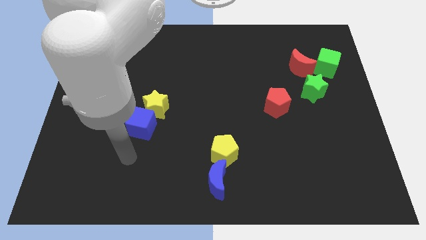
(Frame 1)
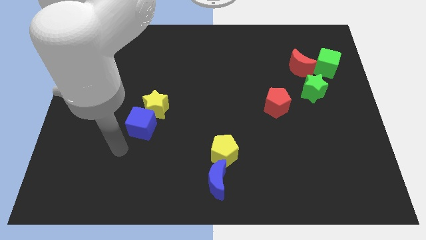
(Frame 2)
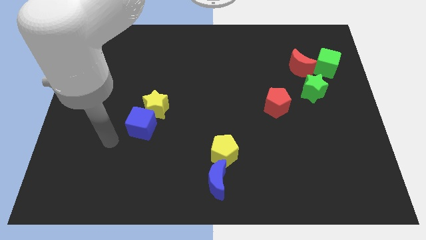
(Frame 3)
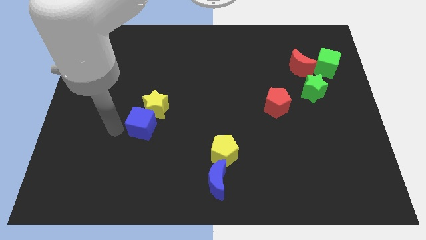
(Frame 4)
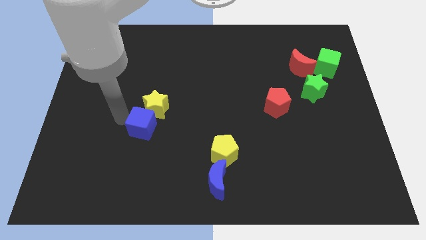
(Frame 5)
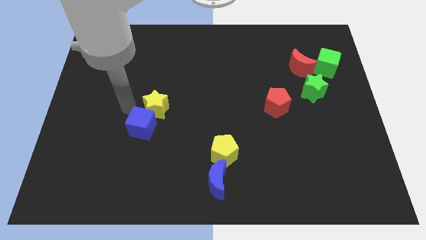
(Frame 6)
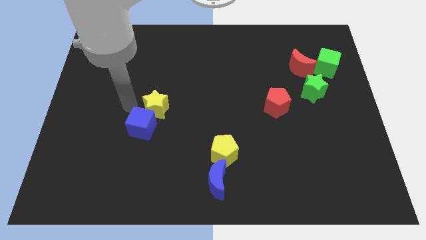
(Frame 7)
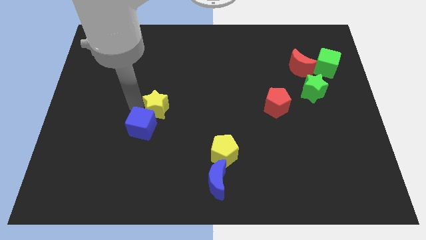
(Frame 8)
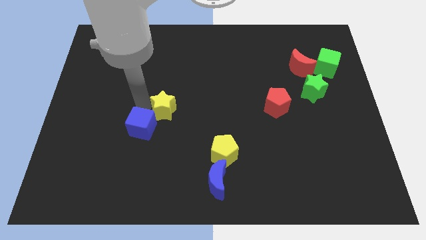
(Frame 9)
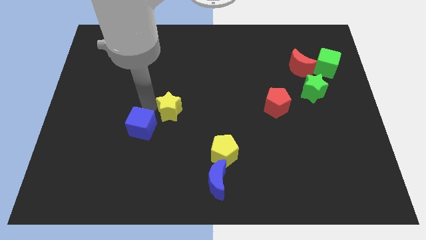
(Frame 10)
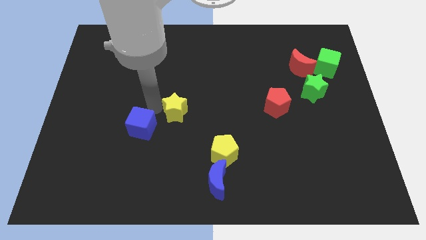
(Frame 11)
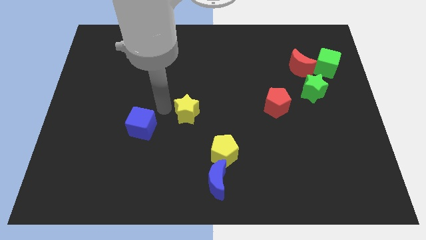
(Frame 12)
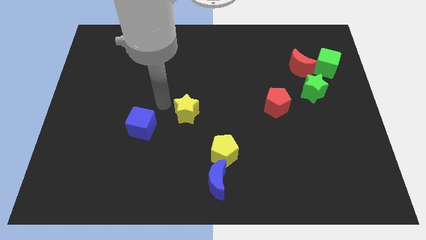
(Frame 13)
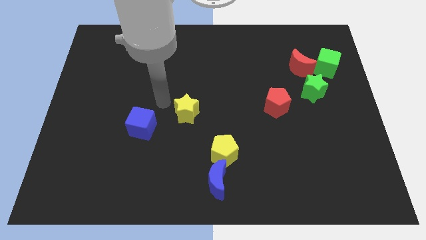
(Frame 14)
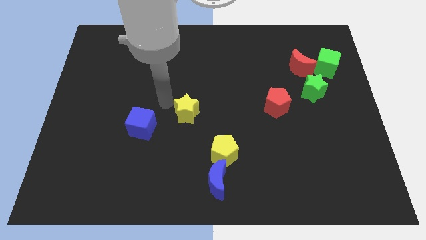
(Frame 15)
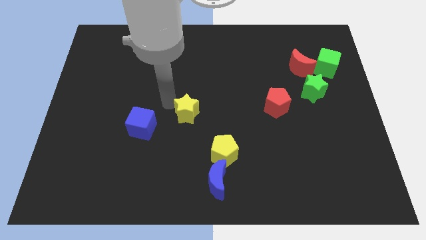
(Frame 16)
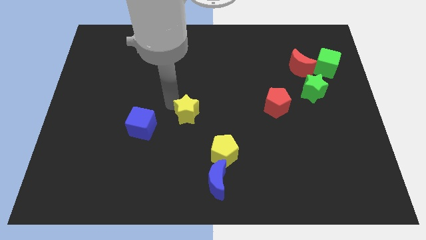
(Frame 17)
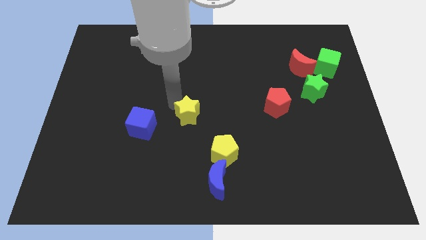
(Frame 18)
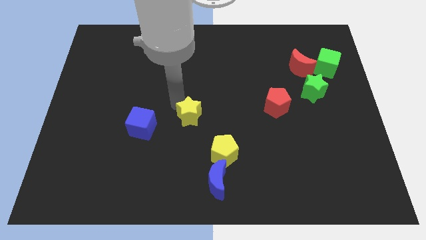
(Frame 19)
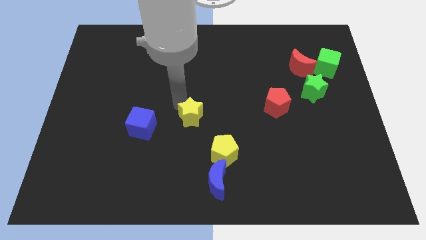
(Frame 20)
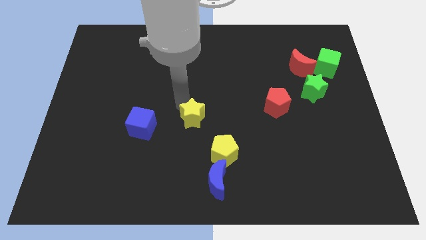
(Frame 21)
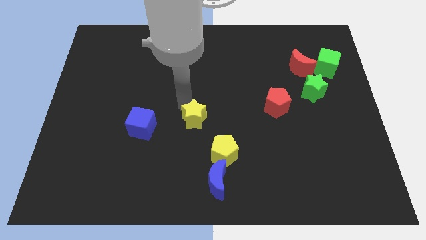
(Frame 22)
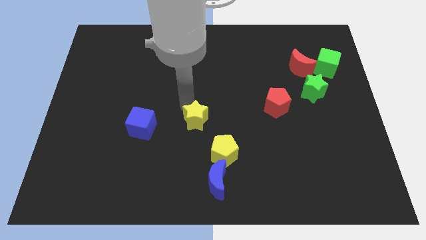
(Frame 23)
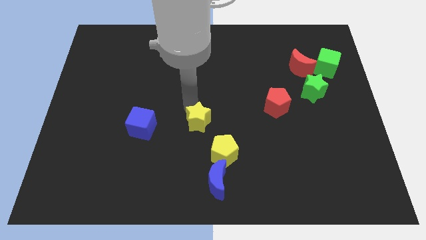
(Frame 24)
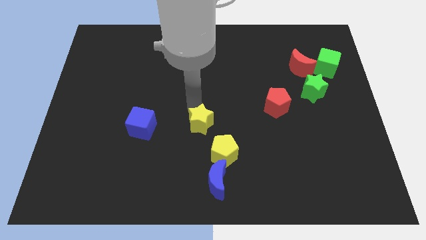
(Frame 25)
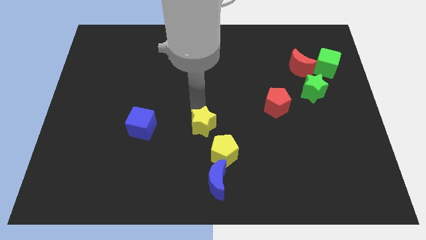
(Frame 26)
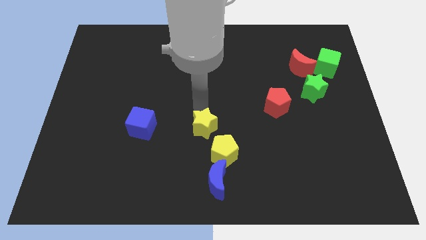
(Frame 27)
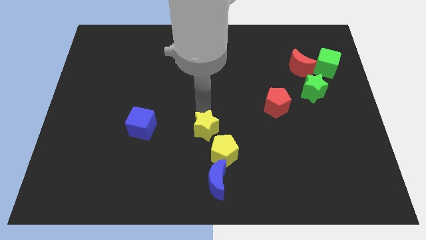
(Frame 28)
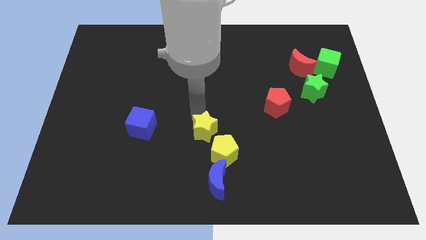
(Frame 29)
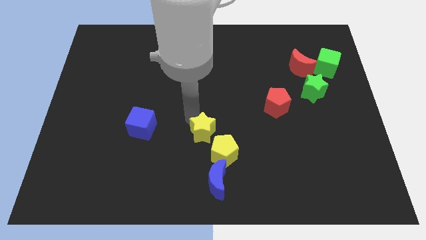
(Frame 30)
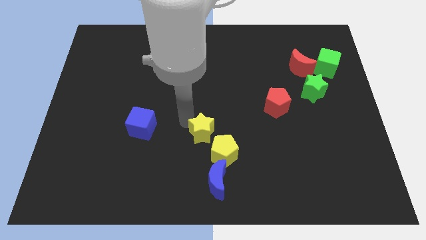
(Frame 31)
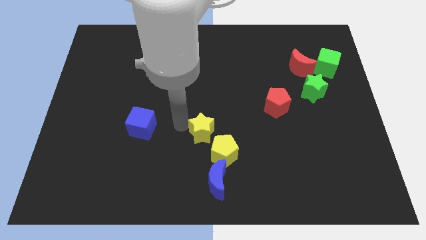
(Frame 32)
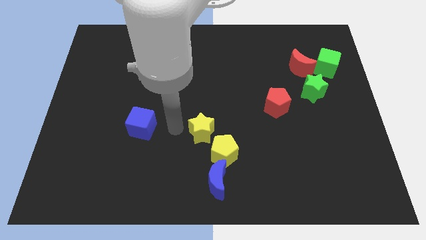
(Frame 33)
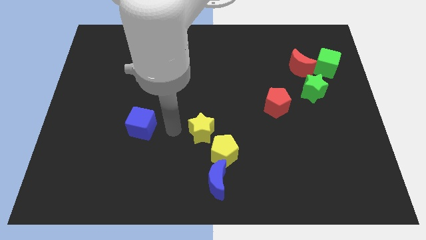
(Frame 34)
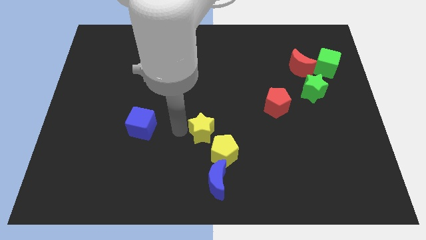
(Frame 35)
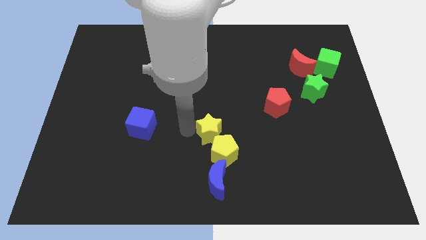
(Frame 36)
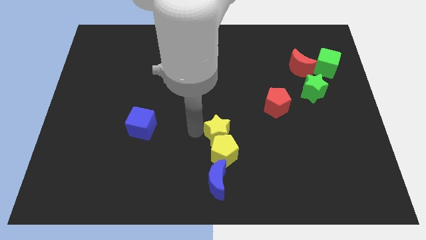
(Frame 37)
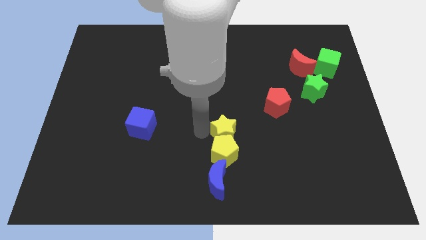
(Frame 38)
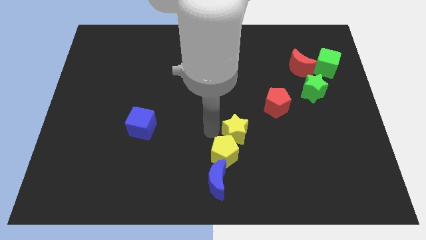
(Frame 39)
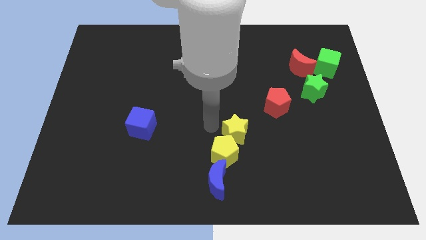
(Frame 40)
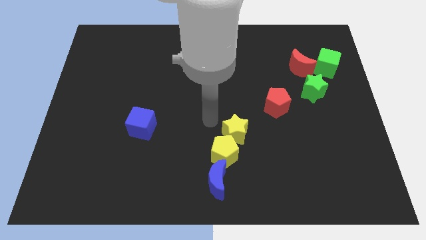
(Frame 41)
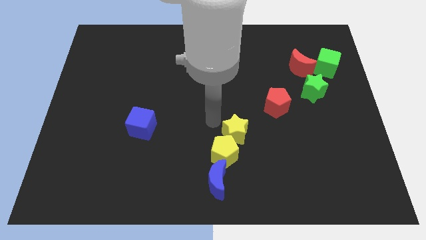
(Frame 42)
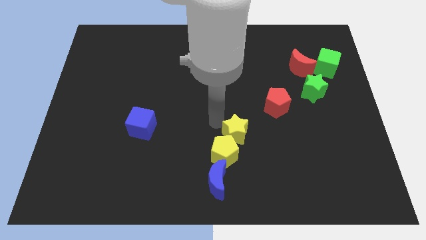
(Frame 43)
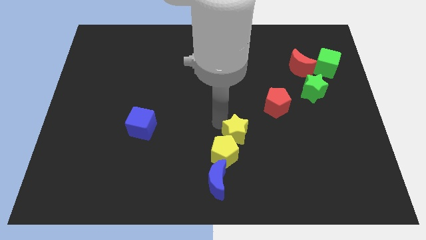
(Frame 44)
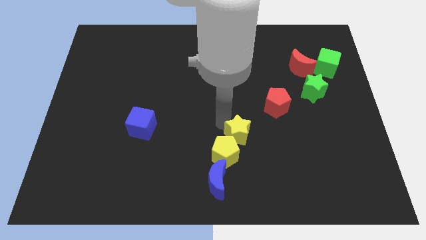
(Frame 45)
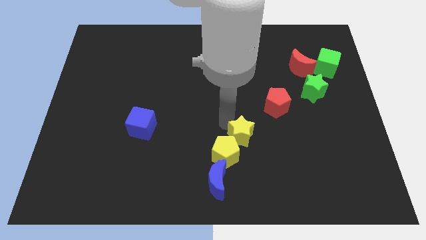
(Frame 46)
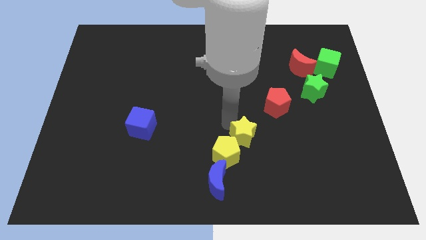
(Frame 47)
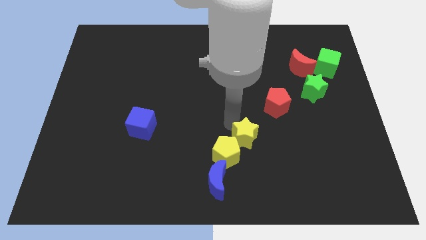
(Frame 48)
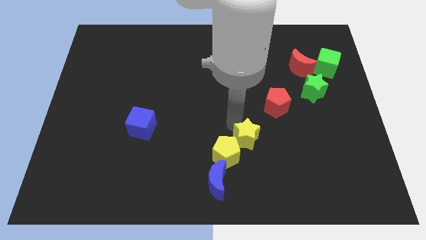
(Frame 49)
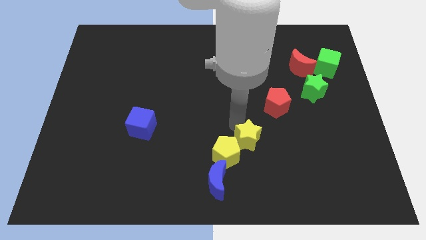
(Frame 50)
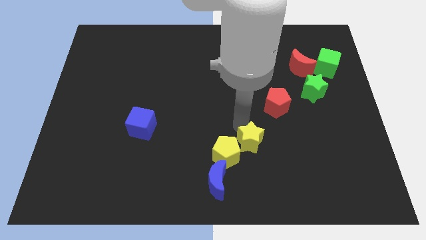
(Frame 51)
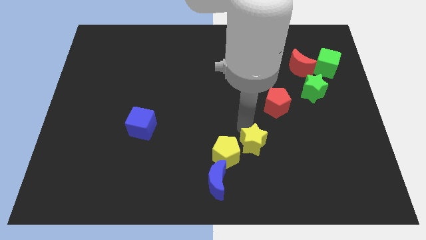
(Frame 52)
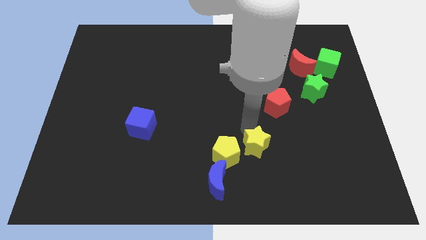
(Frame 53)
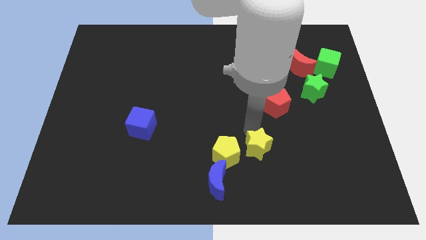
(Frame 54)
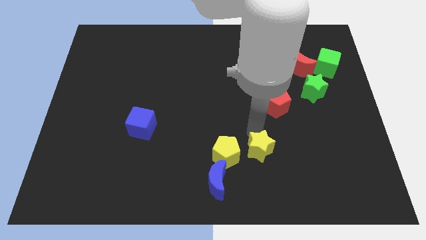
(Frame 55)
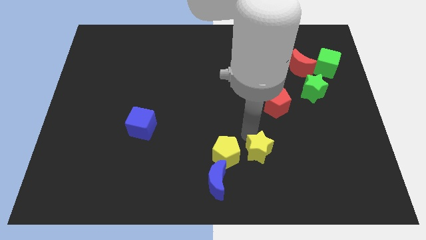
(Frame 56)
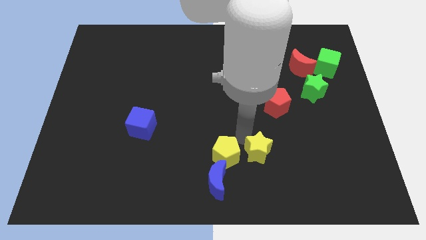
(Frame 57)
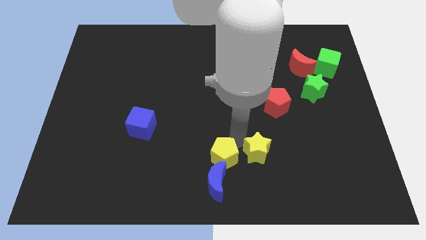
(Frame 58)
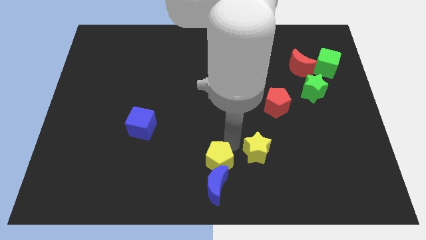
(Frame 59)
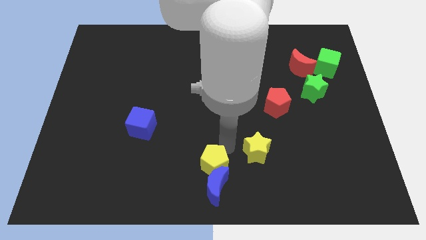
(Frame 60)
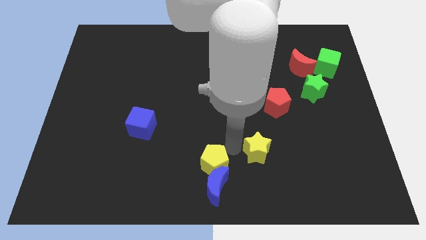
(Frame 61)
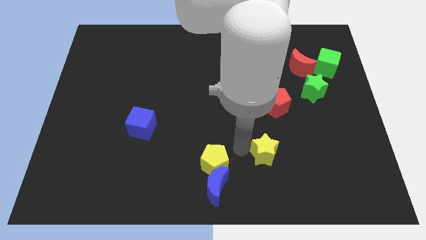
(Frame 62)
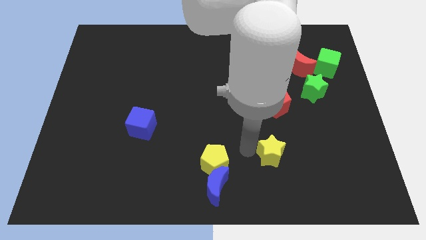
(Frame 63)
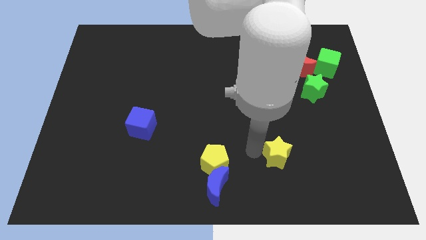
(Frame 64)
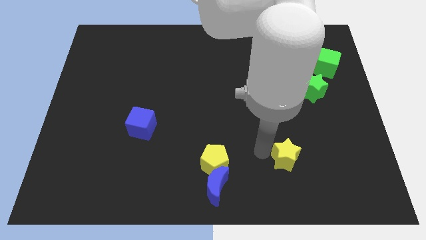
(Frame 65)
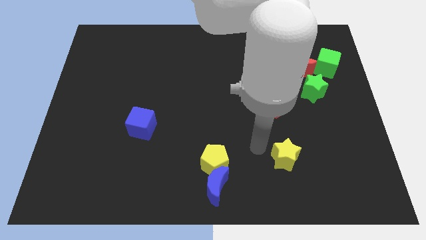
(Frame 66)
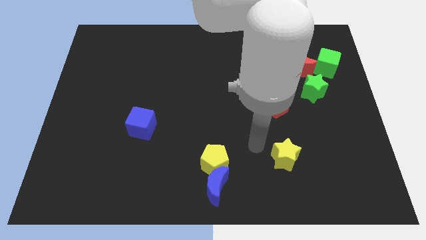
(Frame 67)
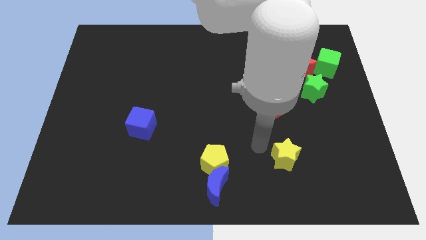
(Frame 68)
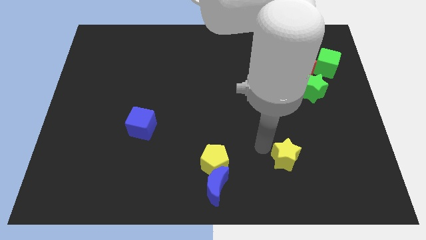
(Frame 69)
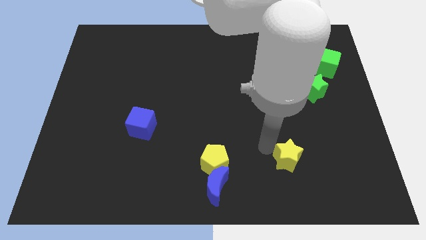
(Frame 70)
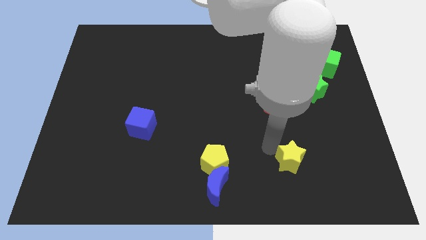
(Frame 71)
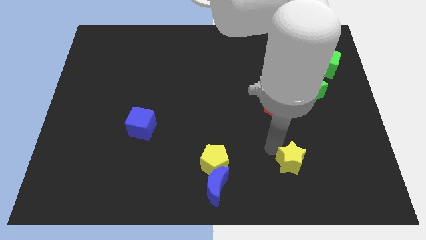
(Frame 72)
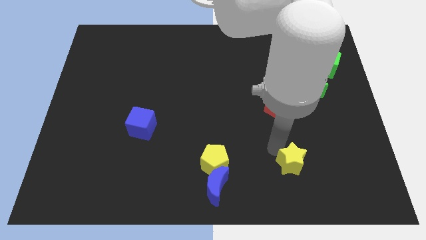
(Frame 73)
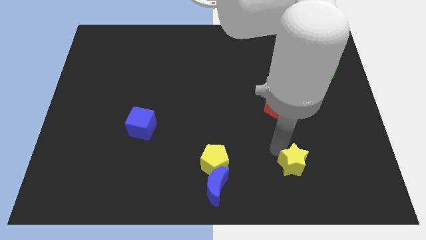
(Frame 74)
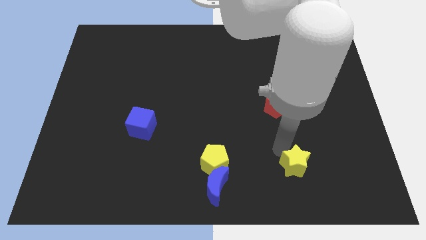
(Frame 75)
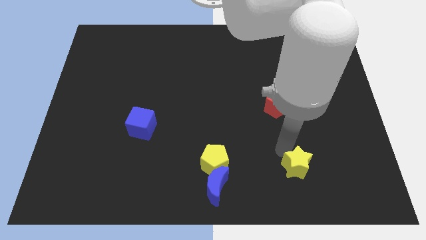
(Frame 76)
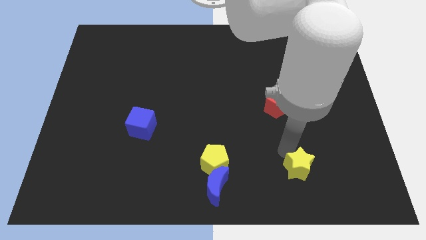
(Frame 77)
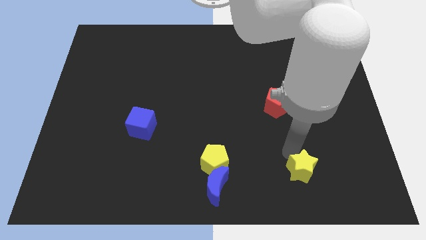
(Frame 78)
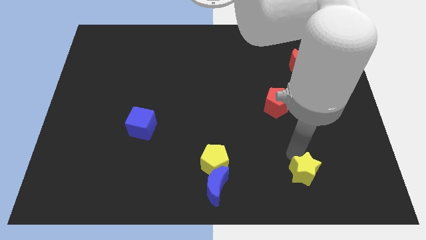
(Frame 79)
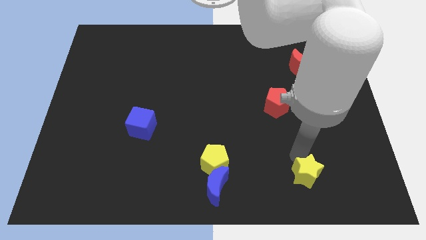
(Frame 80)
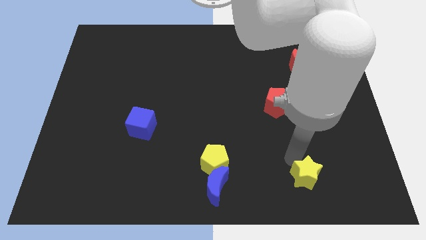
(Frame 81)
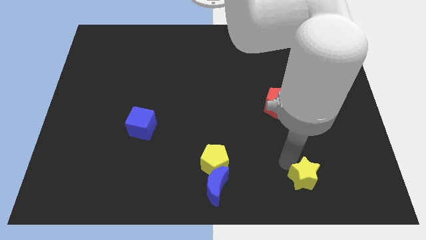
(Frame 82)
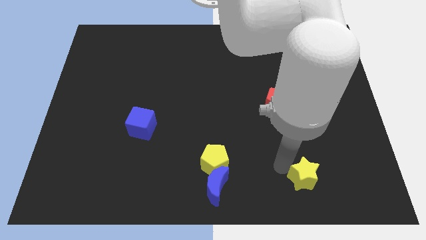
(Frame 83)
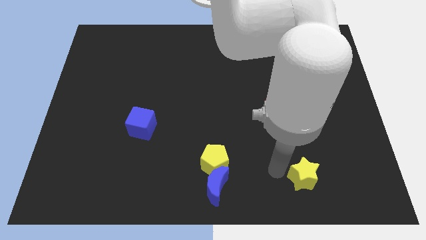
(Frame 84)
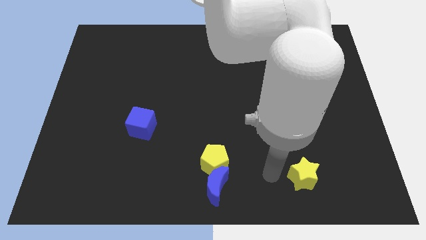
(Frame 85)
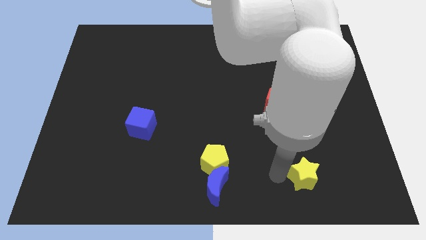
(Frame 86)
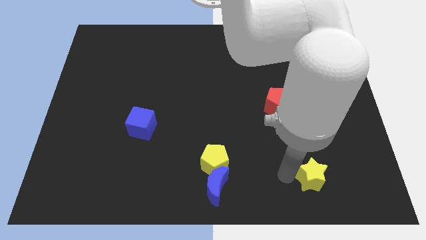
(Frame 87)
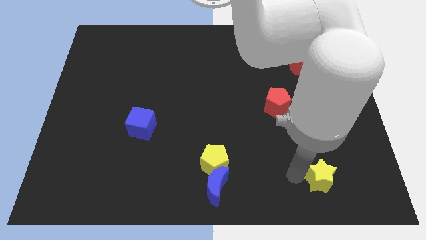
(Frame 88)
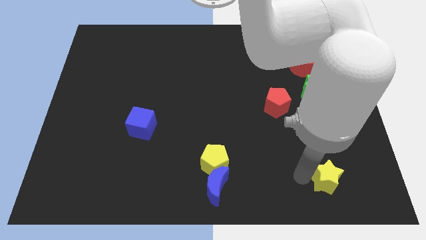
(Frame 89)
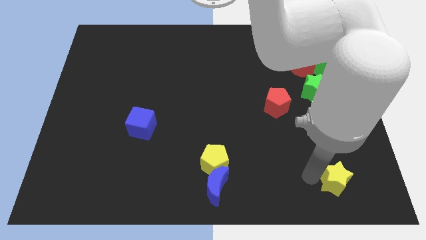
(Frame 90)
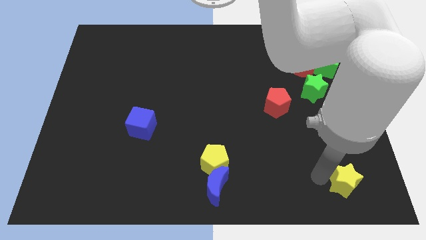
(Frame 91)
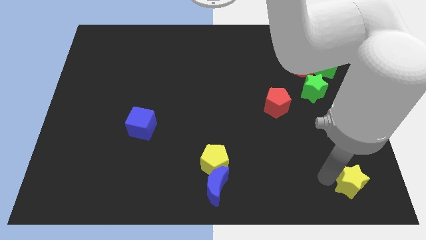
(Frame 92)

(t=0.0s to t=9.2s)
move the yellow star to the lower right corner
